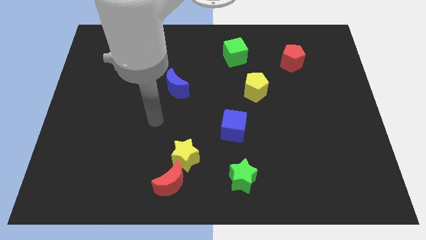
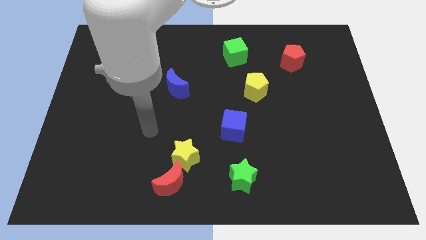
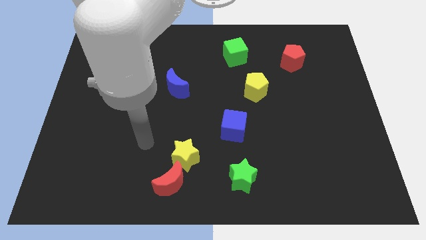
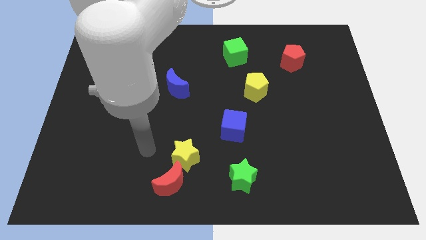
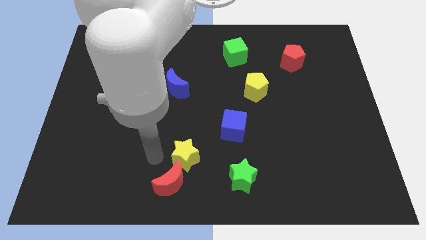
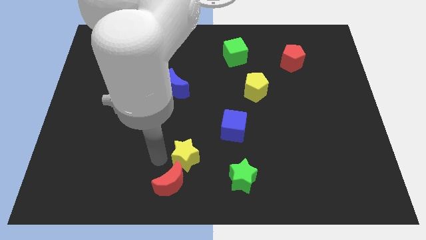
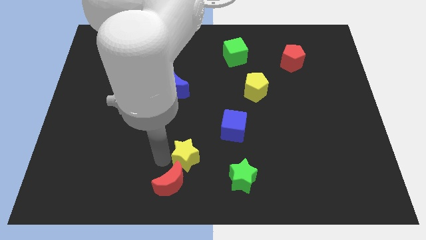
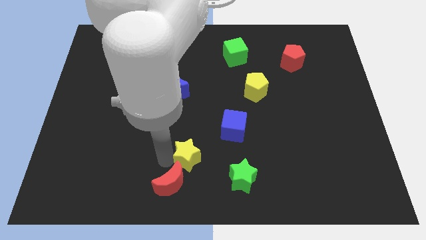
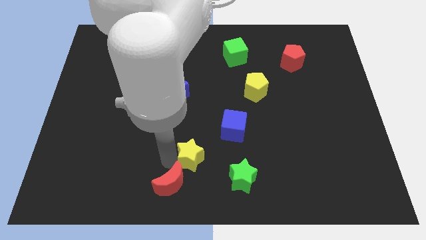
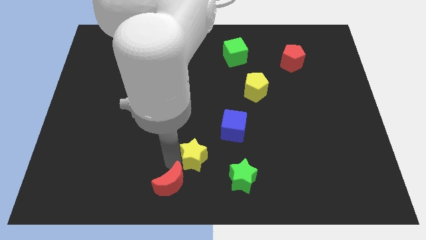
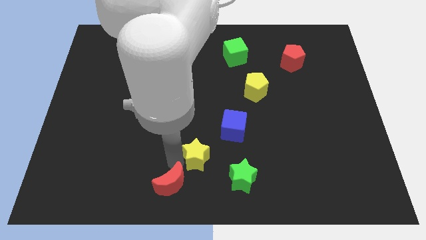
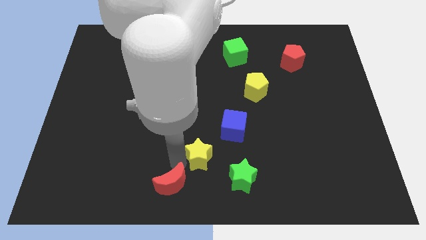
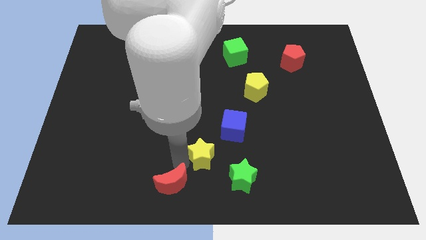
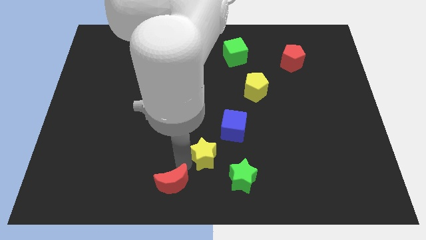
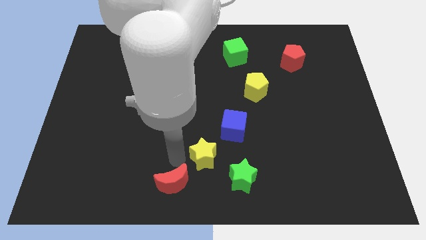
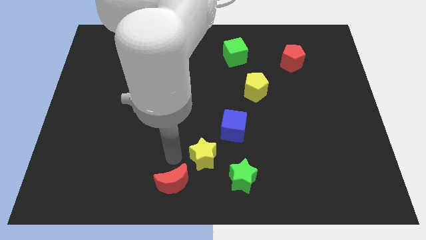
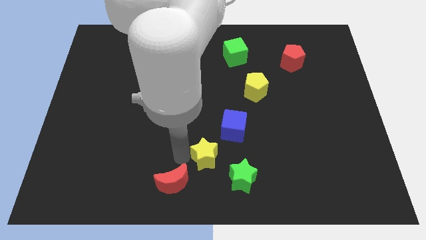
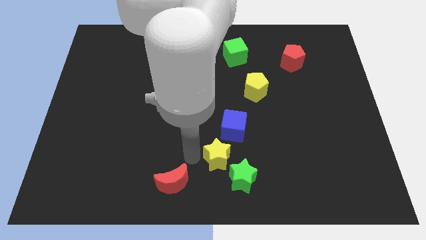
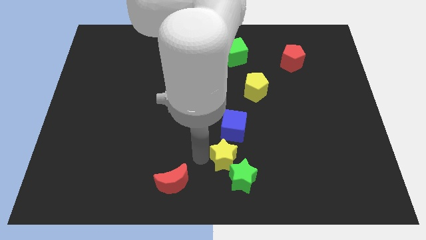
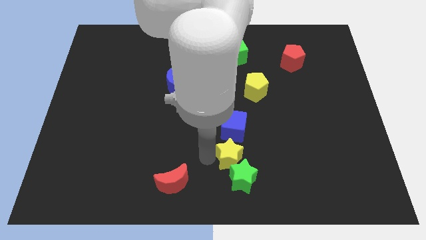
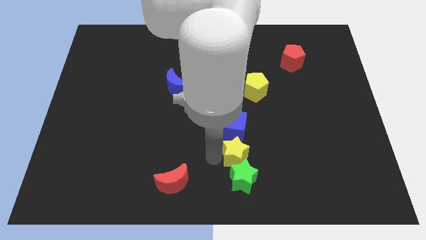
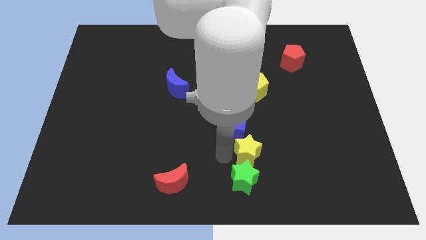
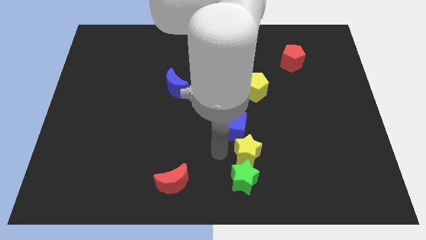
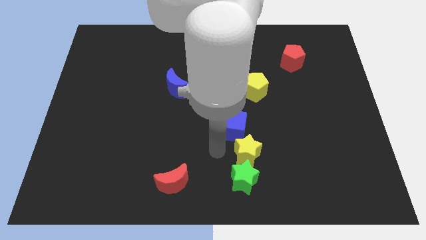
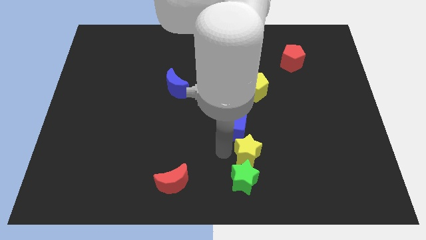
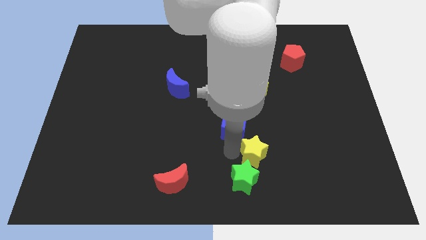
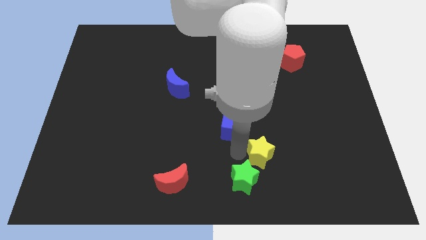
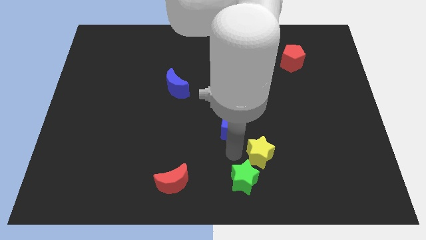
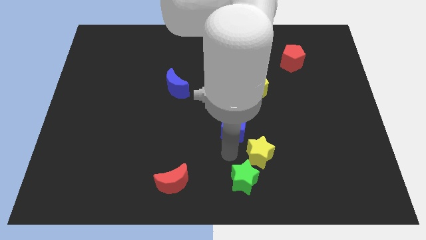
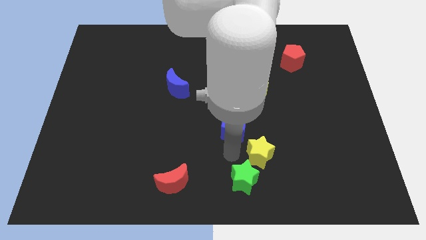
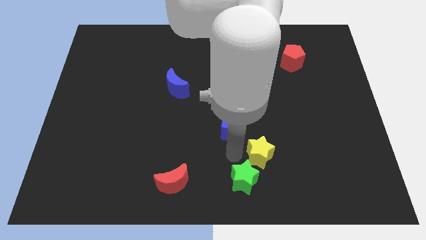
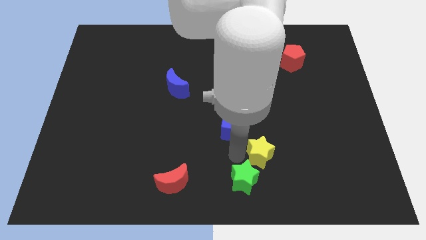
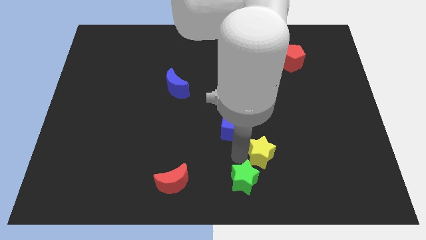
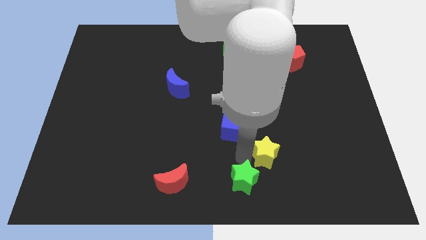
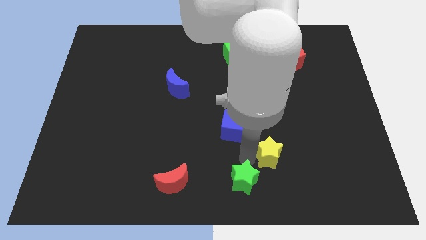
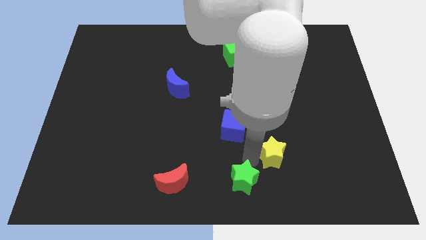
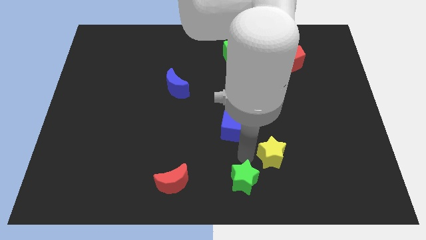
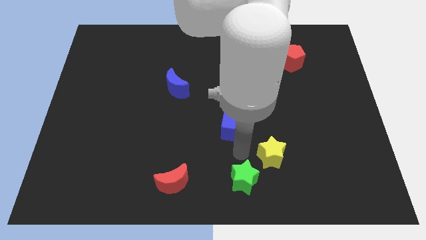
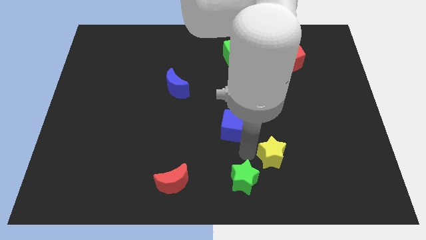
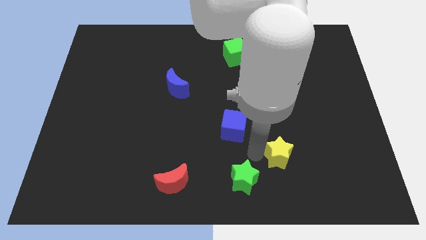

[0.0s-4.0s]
move the yellow star right

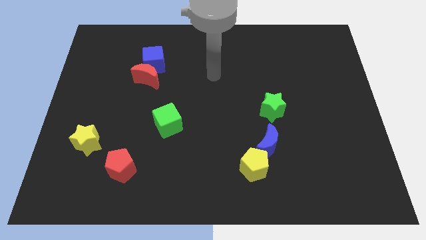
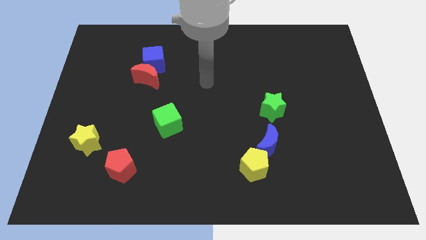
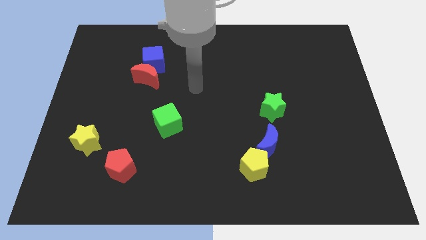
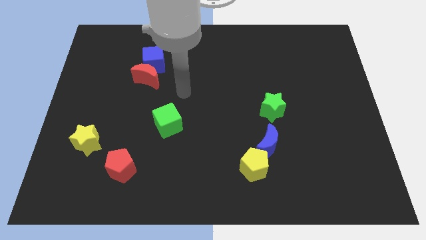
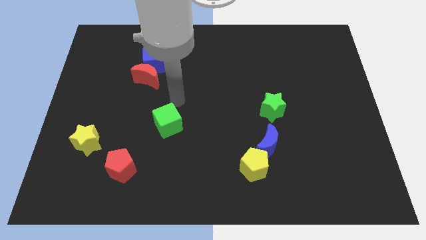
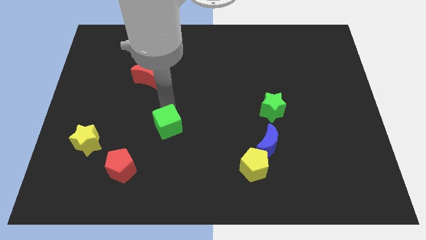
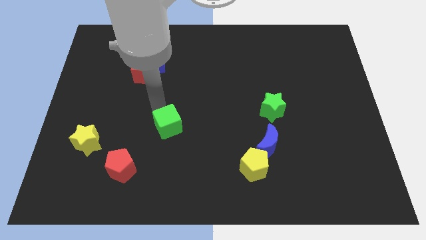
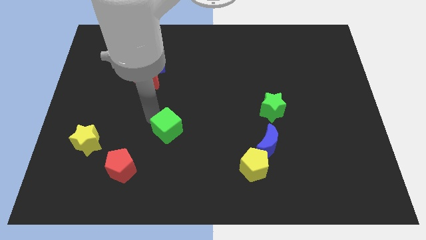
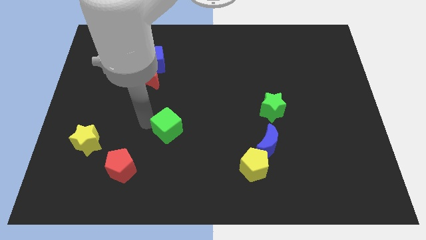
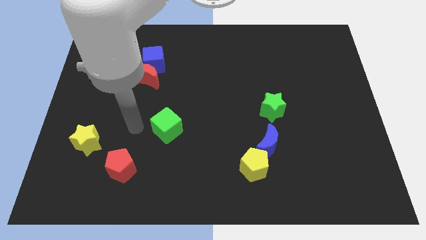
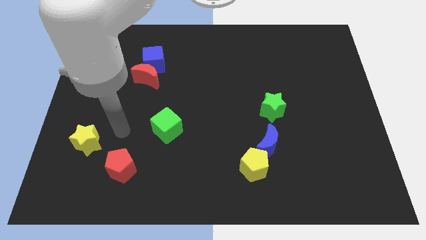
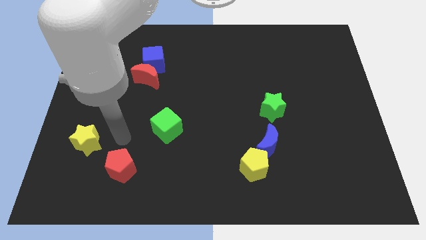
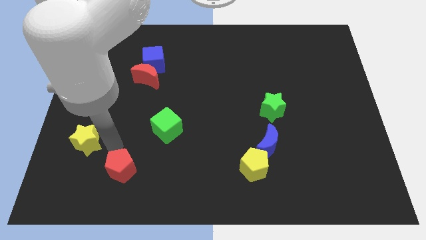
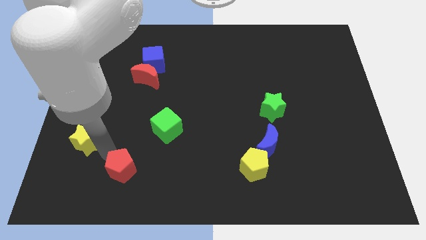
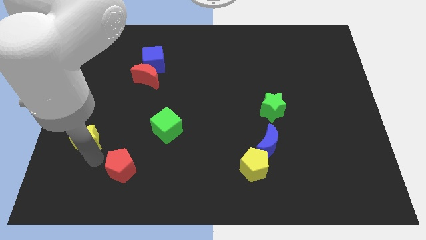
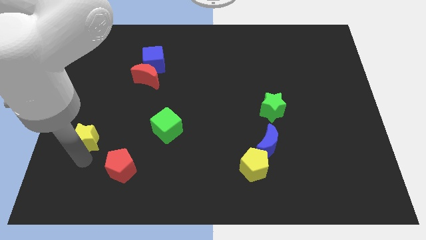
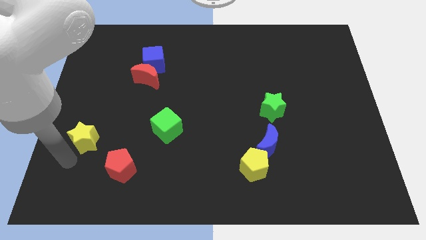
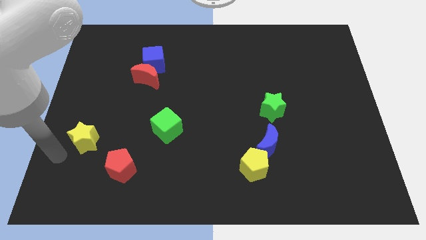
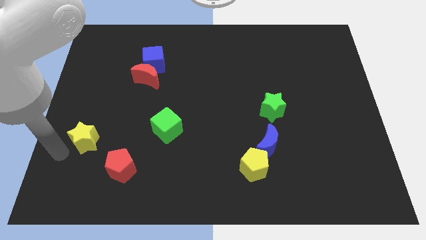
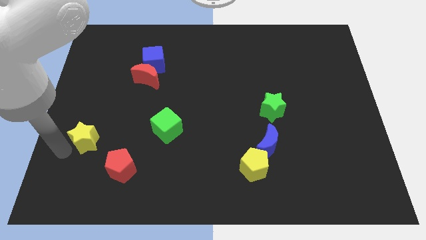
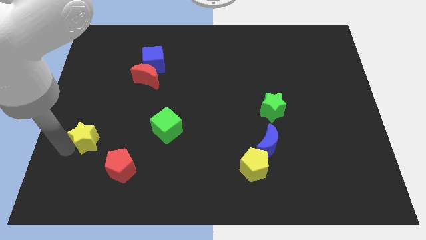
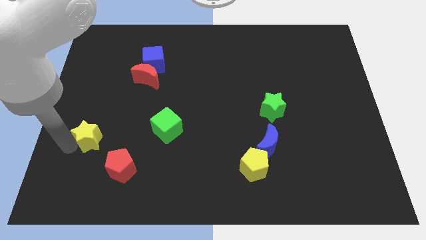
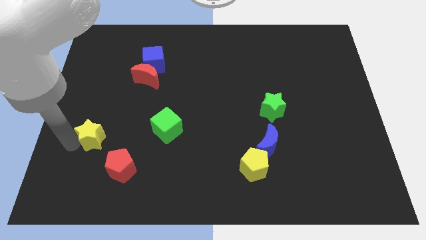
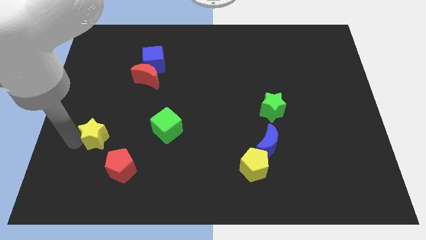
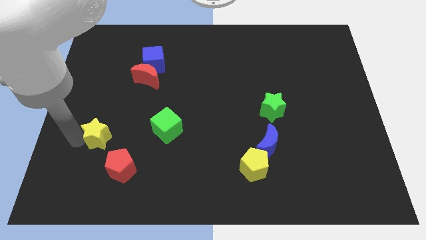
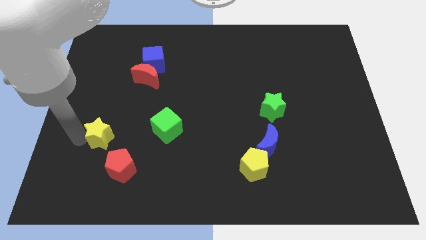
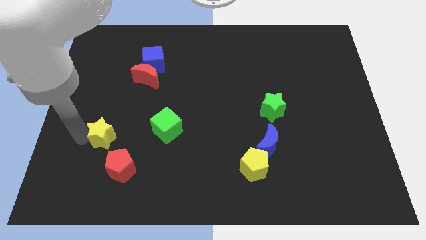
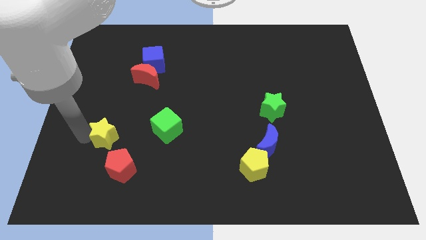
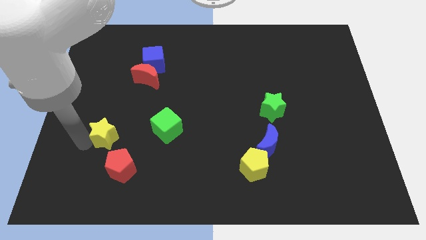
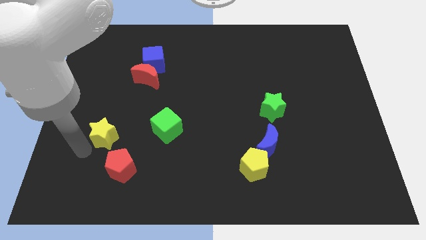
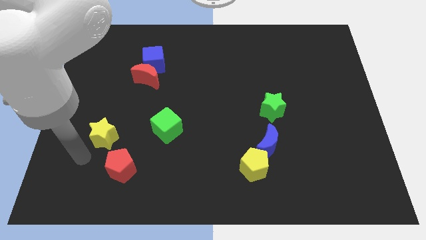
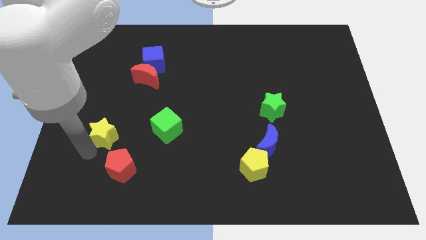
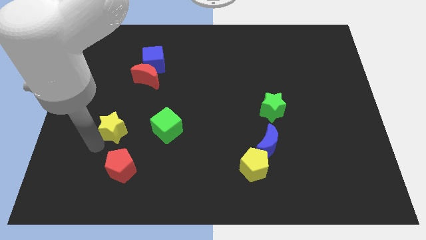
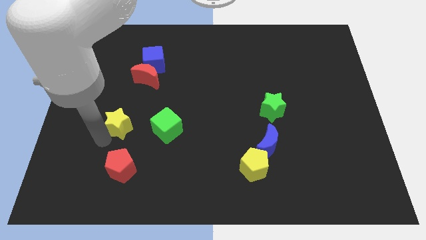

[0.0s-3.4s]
slightly push the yellow star diagonally upwards and right

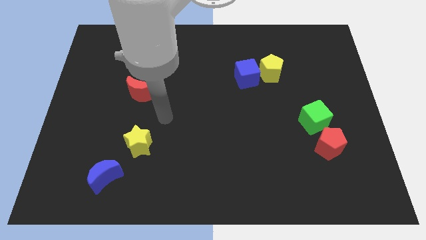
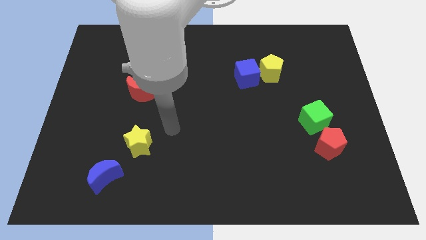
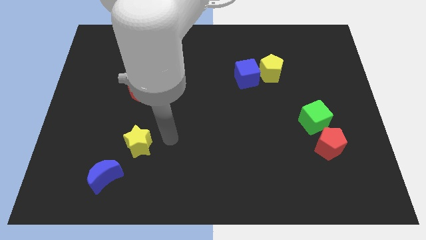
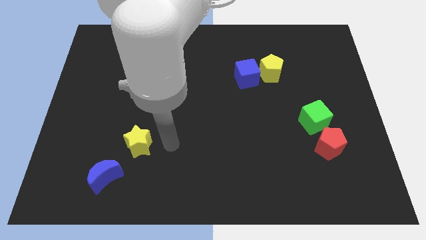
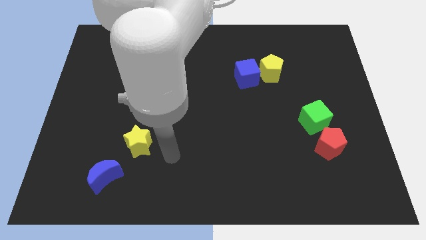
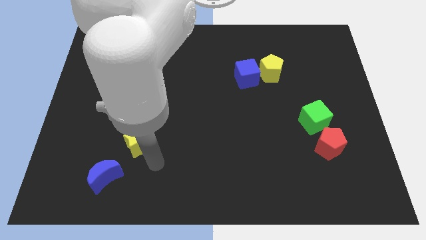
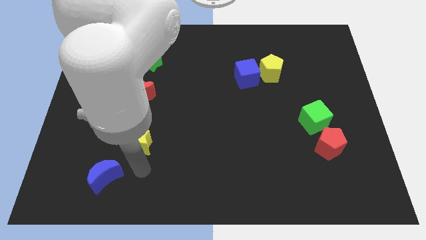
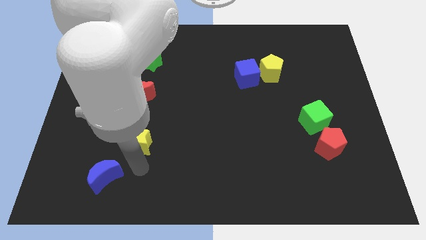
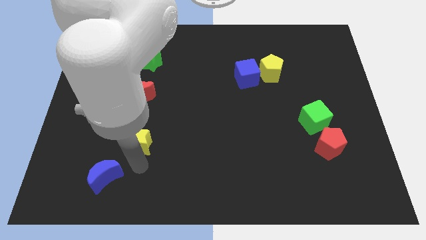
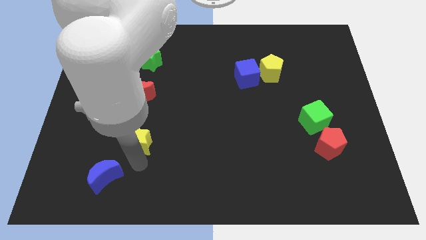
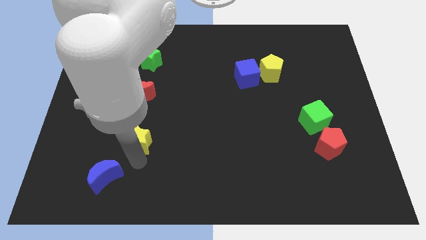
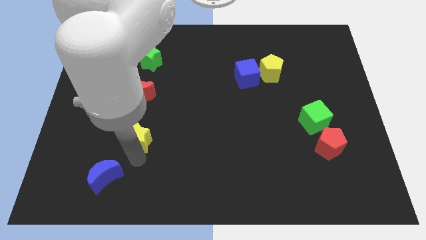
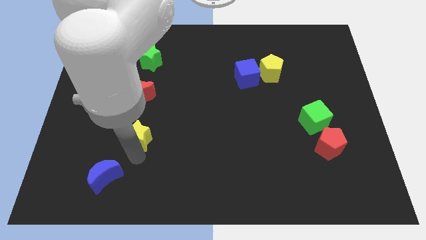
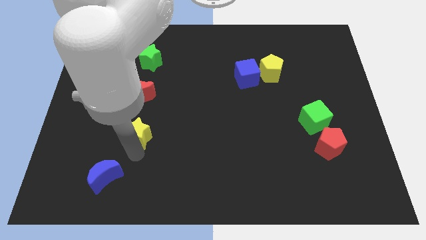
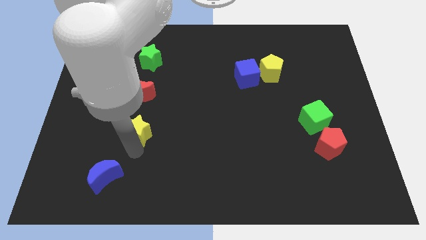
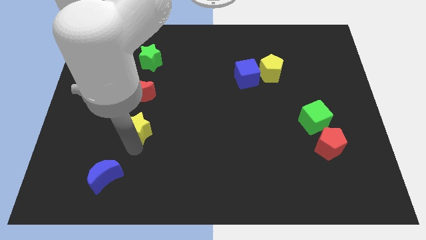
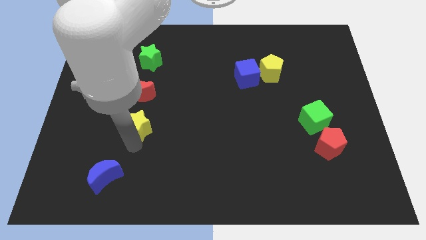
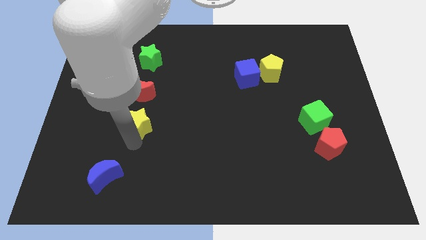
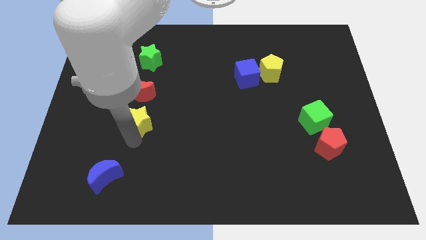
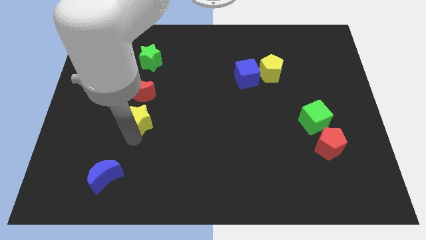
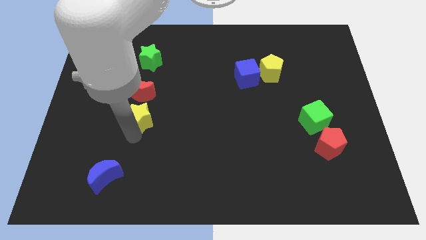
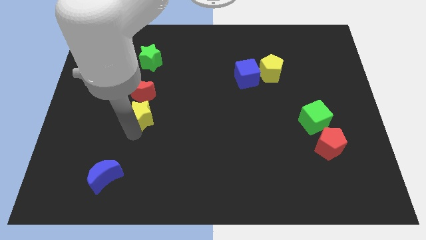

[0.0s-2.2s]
move the yellow star upwards slightly
